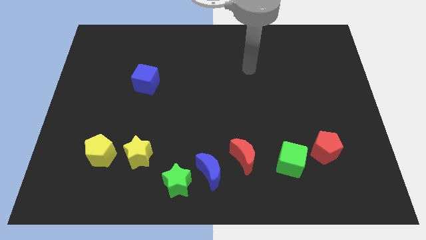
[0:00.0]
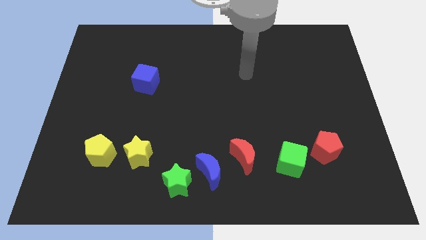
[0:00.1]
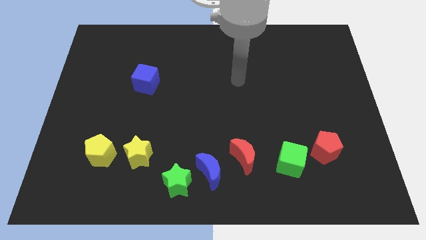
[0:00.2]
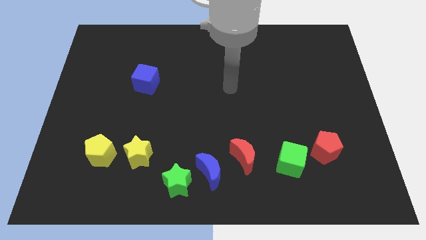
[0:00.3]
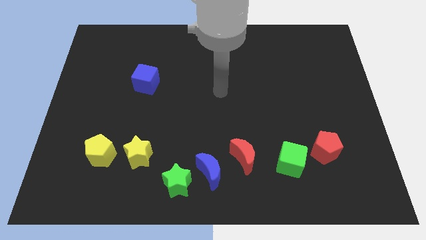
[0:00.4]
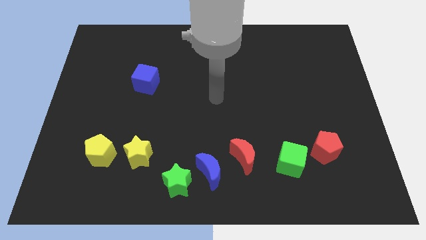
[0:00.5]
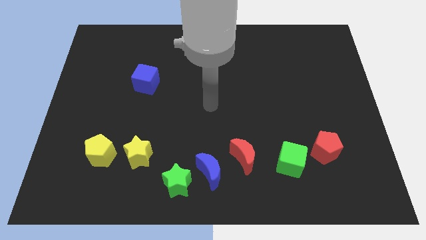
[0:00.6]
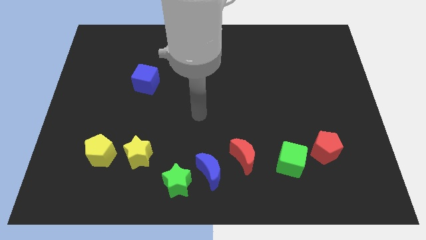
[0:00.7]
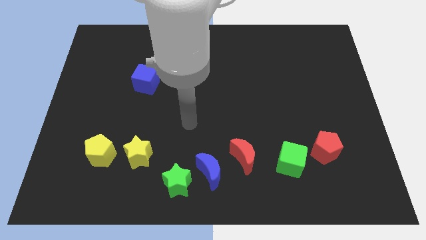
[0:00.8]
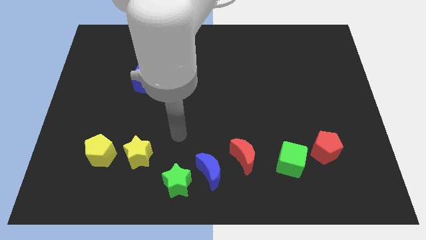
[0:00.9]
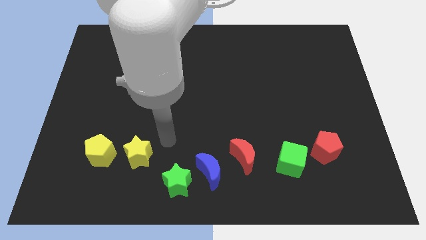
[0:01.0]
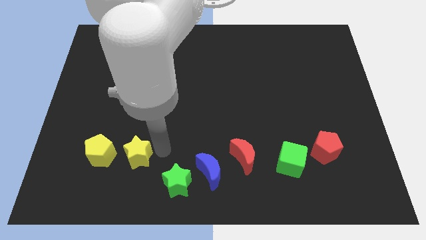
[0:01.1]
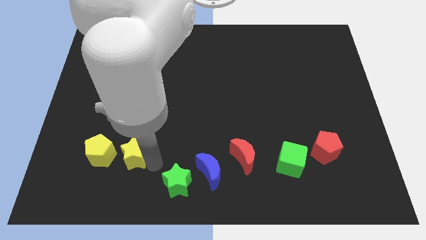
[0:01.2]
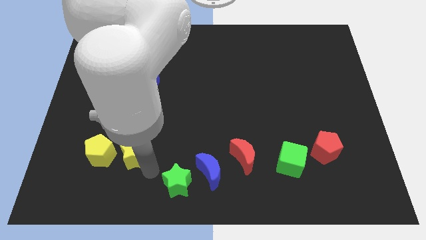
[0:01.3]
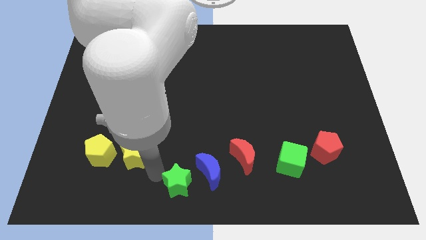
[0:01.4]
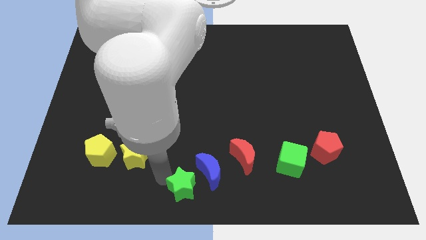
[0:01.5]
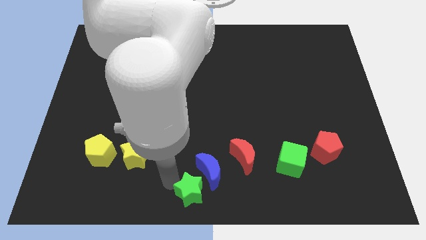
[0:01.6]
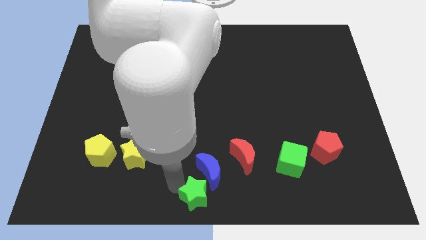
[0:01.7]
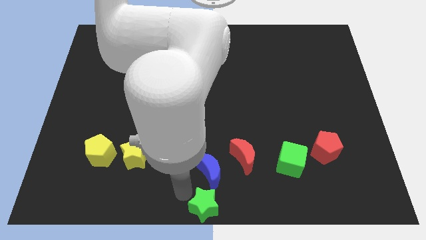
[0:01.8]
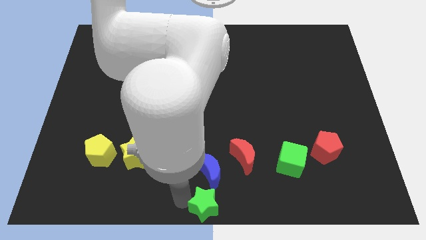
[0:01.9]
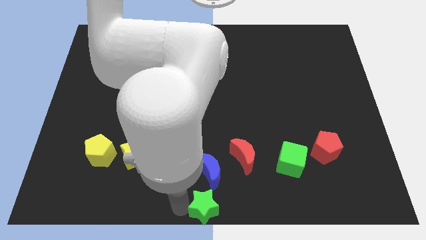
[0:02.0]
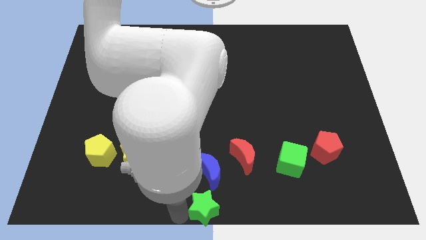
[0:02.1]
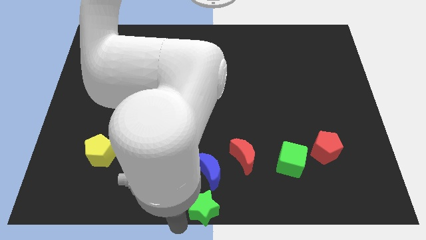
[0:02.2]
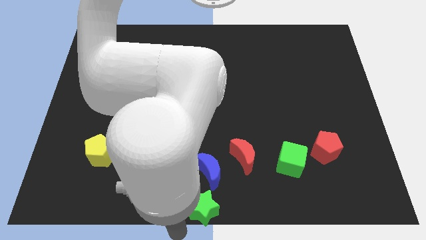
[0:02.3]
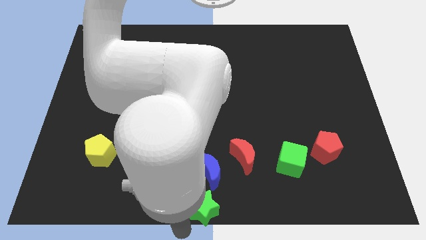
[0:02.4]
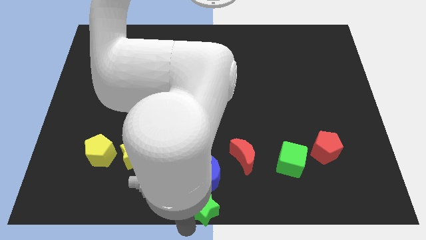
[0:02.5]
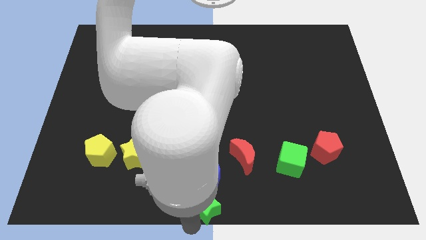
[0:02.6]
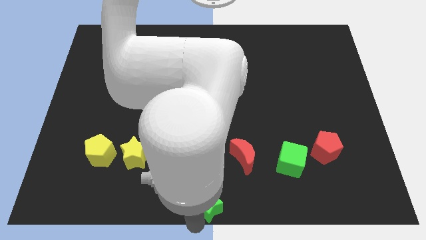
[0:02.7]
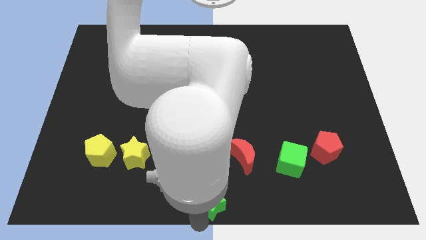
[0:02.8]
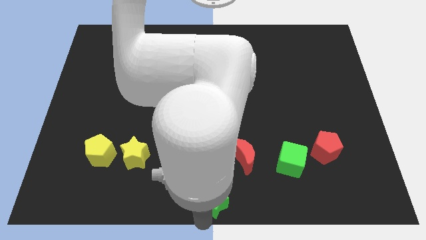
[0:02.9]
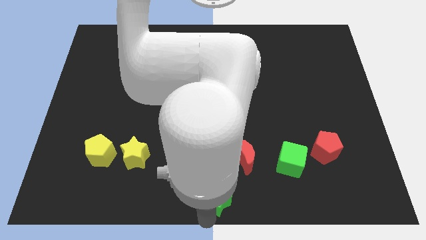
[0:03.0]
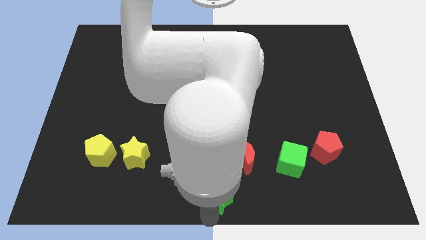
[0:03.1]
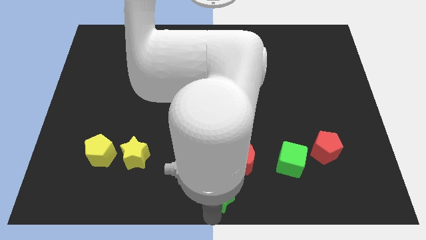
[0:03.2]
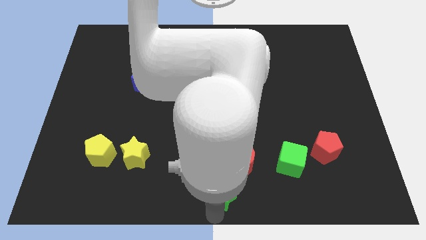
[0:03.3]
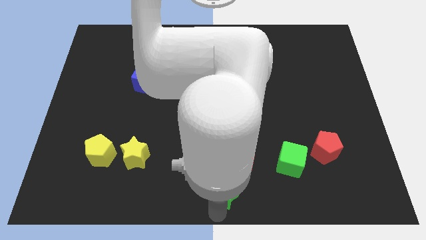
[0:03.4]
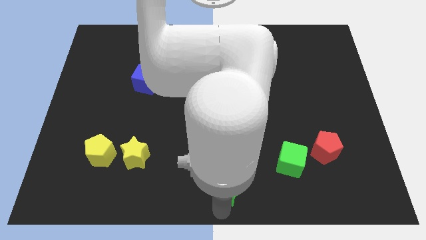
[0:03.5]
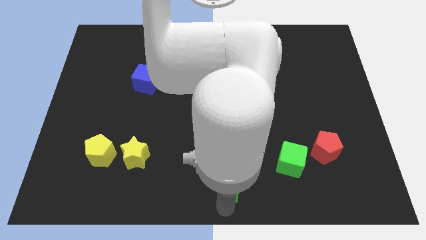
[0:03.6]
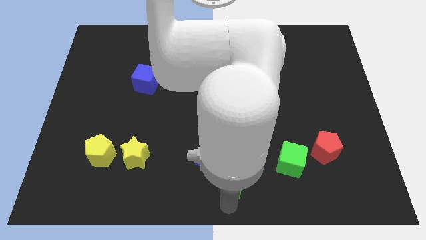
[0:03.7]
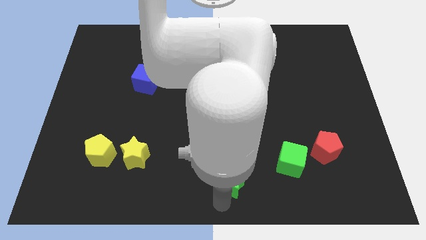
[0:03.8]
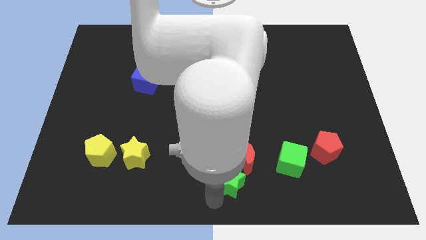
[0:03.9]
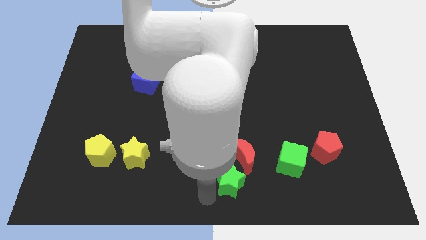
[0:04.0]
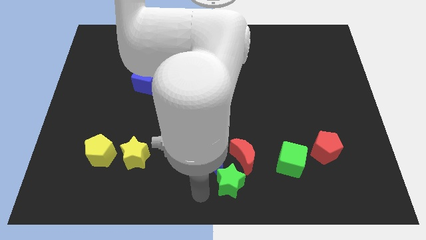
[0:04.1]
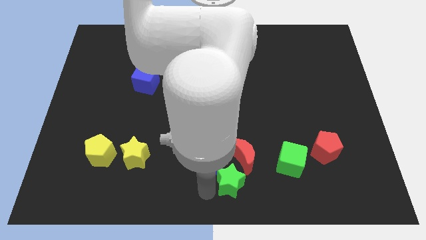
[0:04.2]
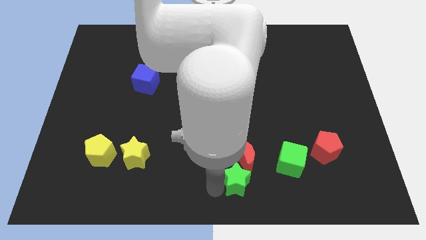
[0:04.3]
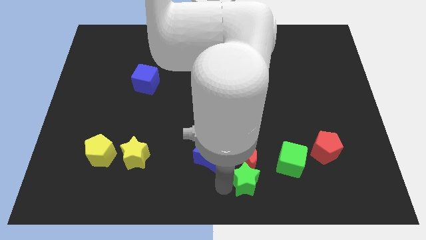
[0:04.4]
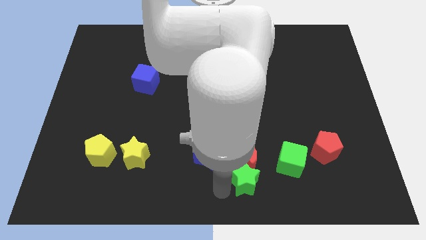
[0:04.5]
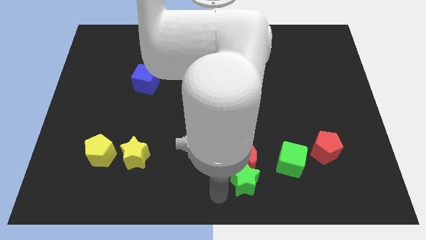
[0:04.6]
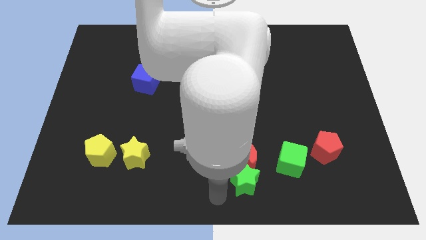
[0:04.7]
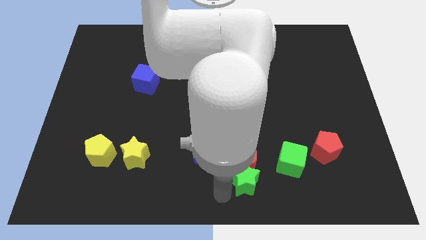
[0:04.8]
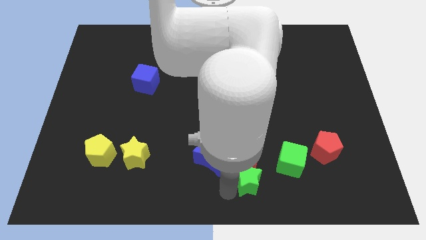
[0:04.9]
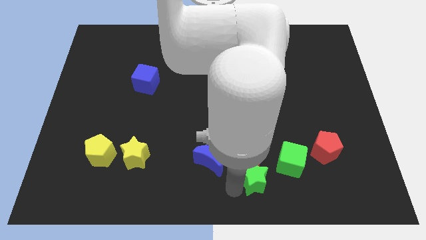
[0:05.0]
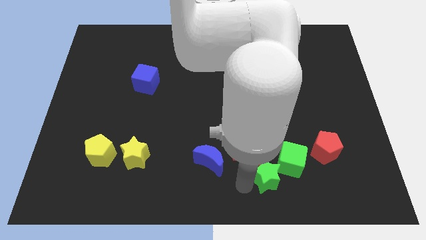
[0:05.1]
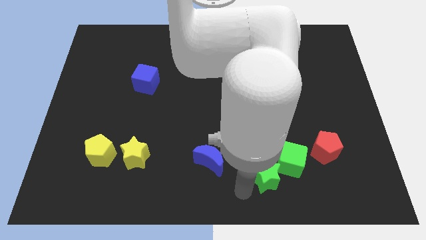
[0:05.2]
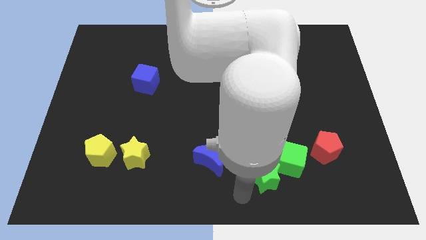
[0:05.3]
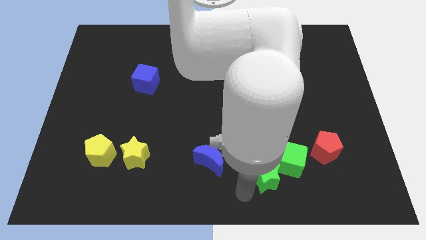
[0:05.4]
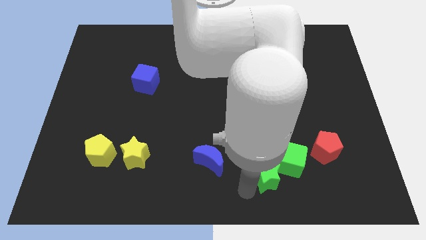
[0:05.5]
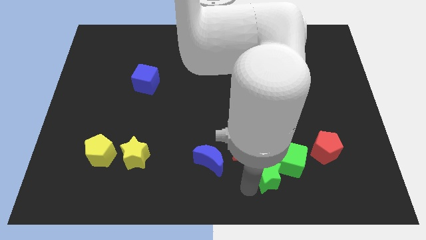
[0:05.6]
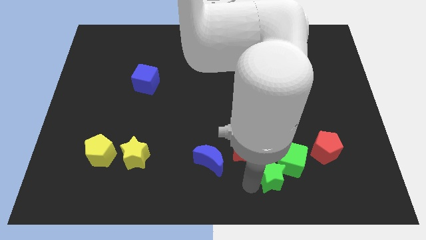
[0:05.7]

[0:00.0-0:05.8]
put the green star next to the green cube

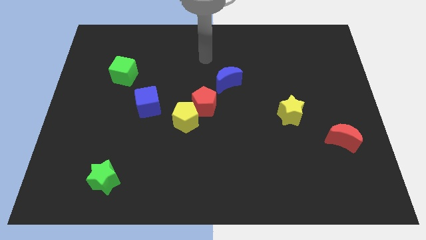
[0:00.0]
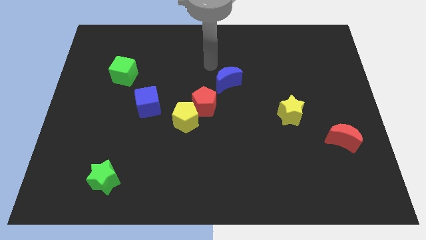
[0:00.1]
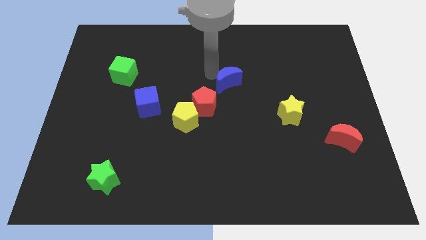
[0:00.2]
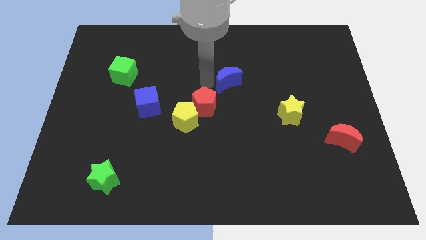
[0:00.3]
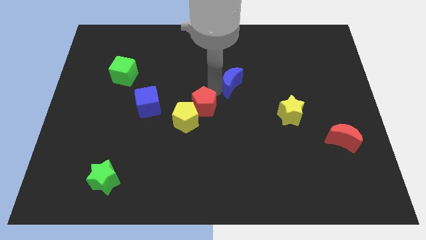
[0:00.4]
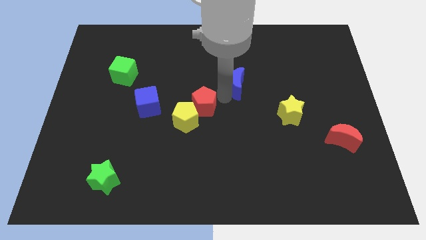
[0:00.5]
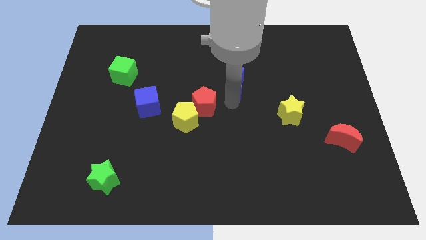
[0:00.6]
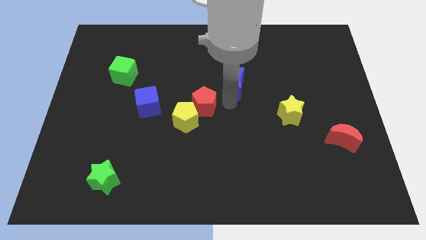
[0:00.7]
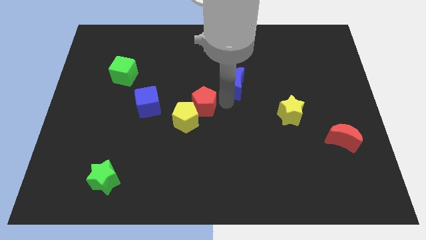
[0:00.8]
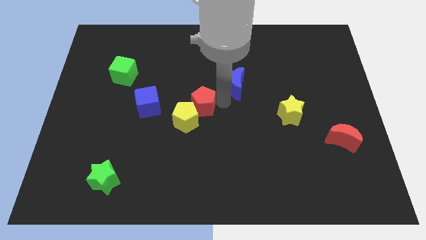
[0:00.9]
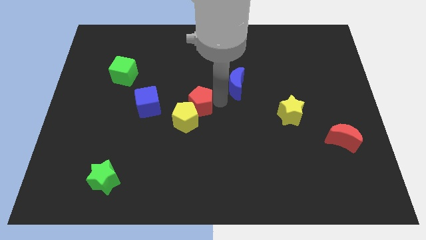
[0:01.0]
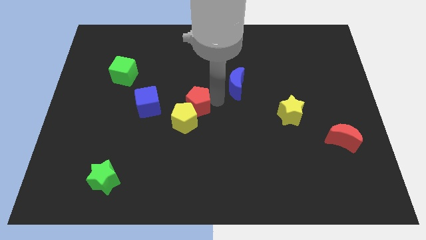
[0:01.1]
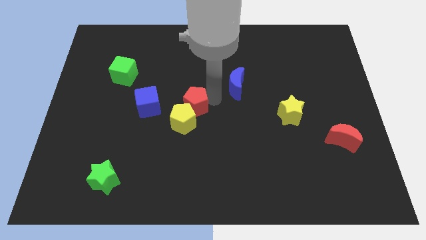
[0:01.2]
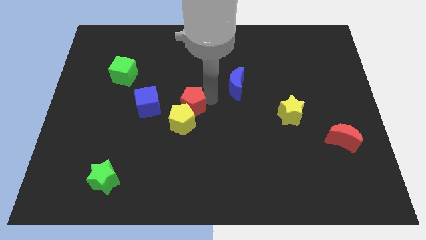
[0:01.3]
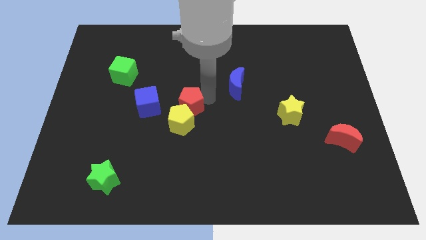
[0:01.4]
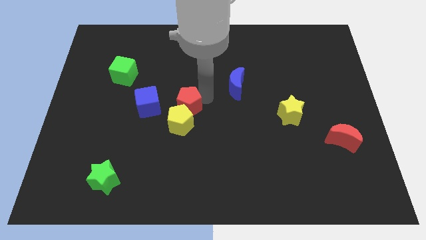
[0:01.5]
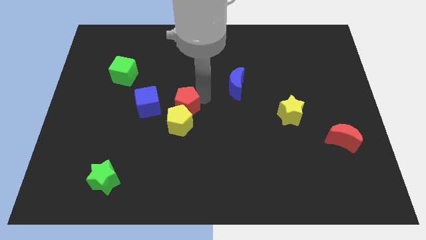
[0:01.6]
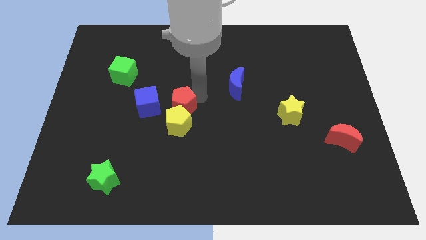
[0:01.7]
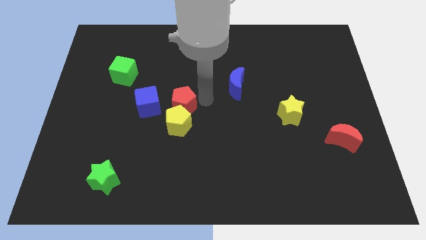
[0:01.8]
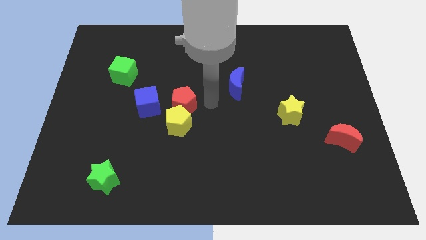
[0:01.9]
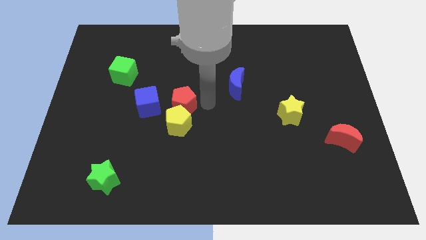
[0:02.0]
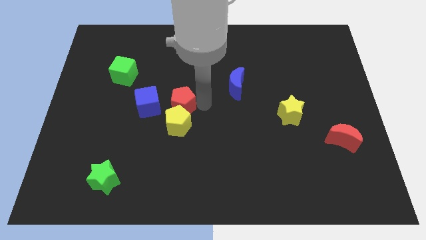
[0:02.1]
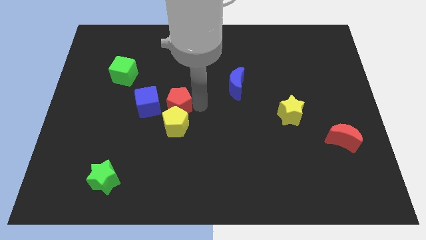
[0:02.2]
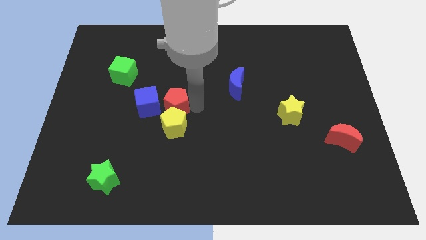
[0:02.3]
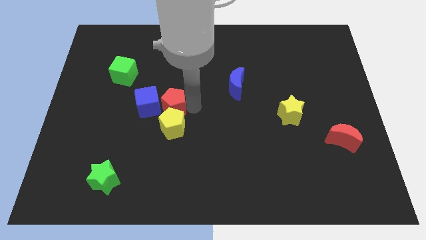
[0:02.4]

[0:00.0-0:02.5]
move the red pentagon close to the blue cube
